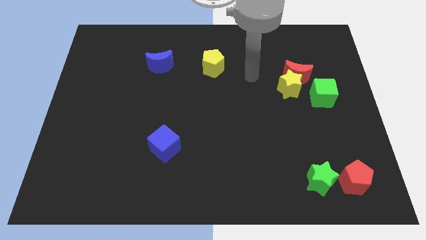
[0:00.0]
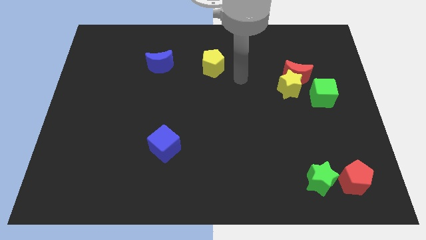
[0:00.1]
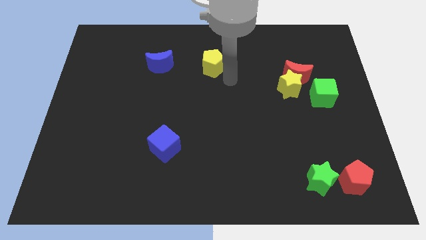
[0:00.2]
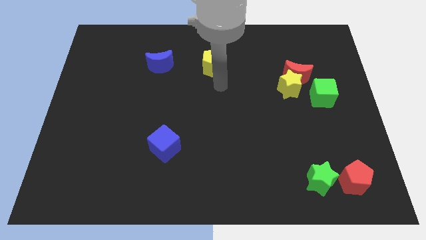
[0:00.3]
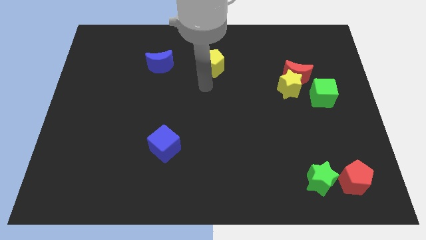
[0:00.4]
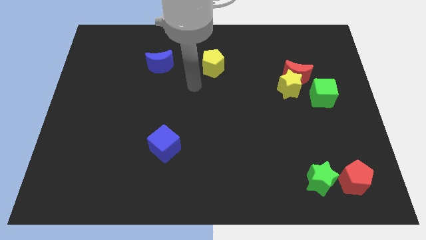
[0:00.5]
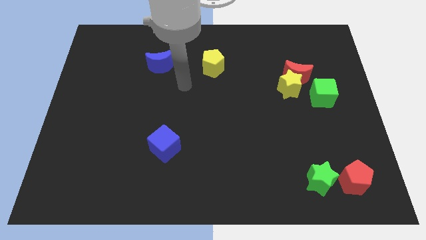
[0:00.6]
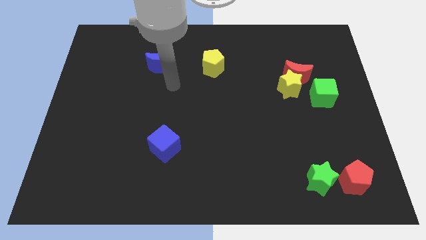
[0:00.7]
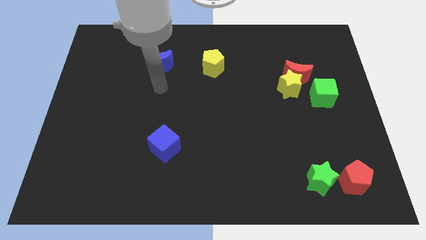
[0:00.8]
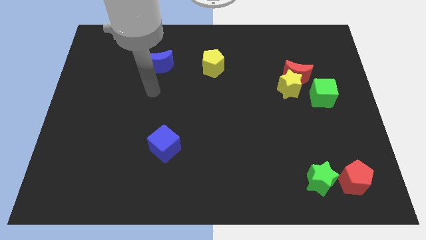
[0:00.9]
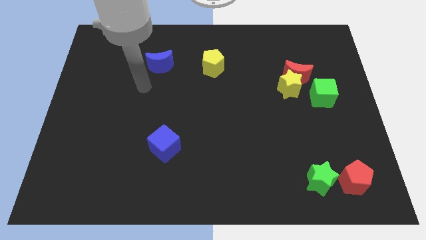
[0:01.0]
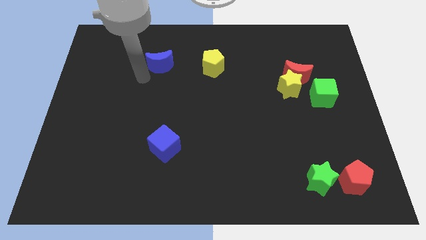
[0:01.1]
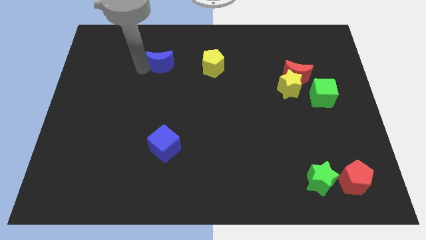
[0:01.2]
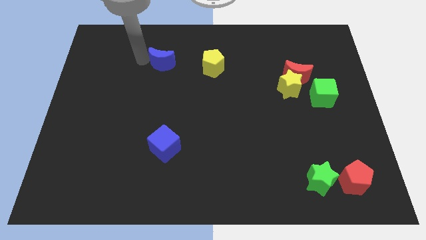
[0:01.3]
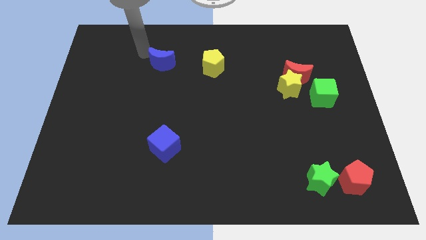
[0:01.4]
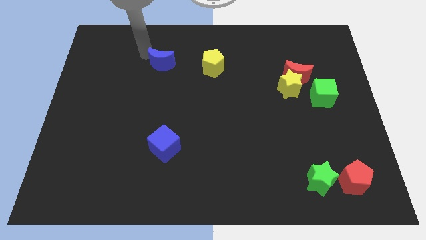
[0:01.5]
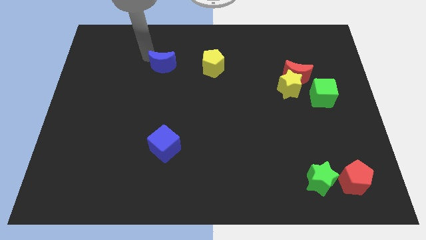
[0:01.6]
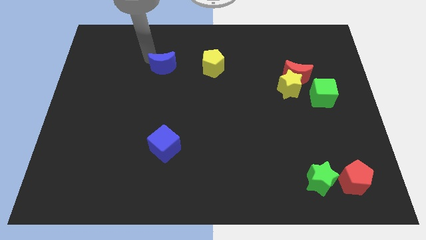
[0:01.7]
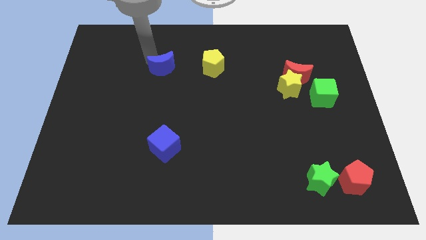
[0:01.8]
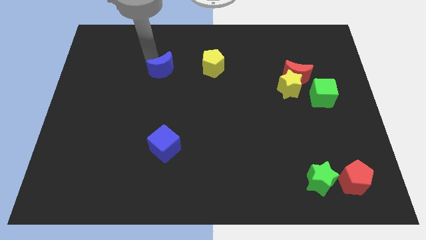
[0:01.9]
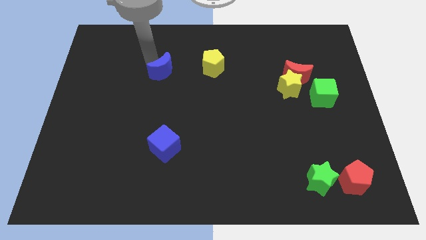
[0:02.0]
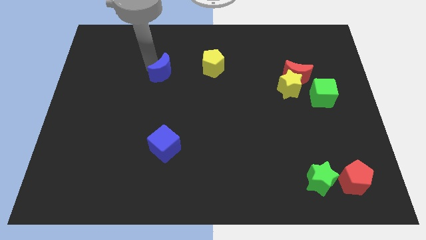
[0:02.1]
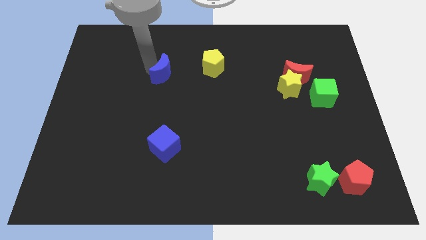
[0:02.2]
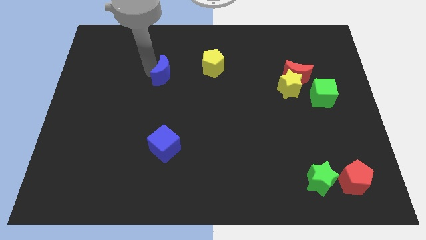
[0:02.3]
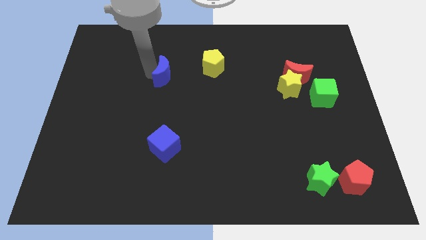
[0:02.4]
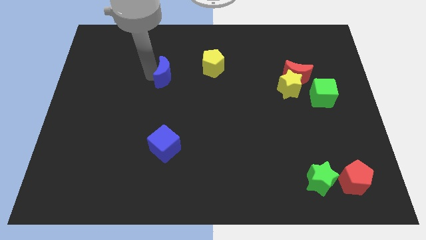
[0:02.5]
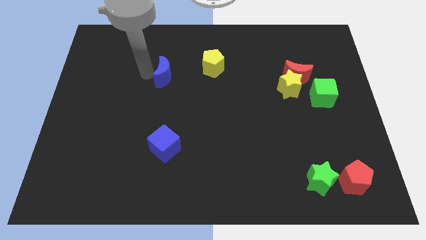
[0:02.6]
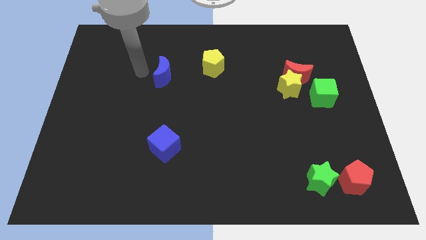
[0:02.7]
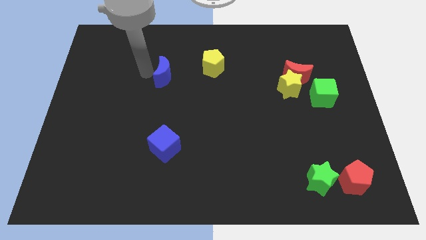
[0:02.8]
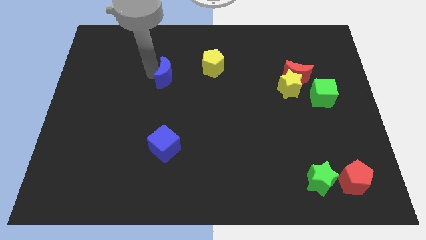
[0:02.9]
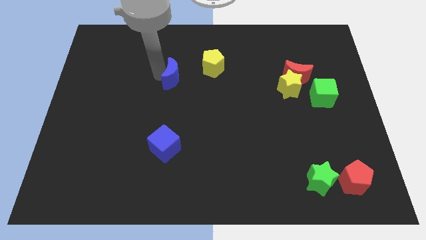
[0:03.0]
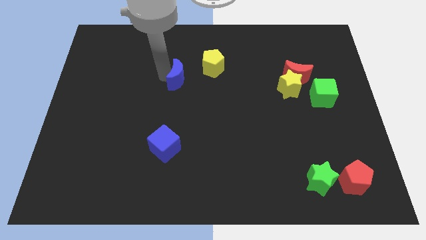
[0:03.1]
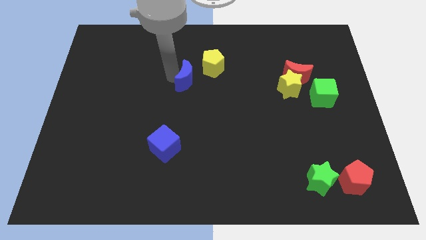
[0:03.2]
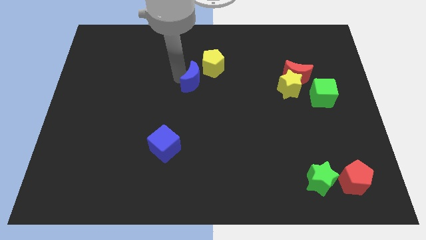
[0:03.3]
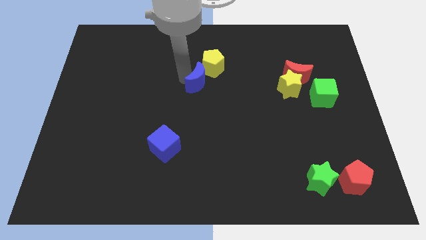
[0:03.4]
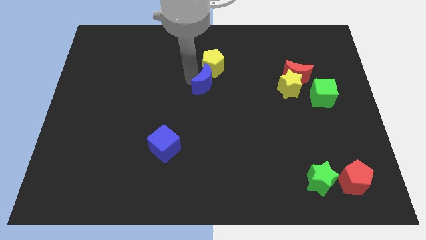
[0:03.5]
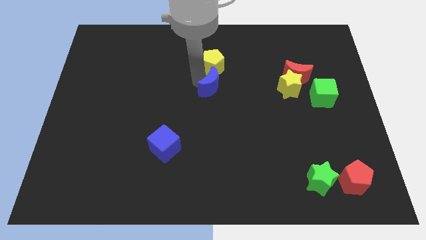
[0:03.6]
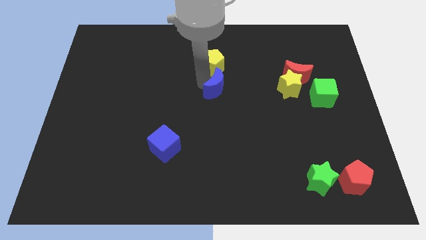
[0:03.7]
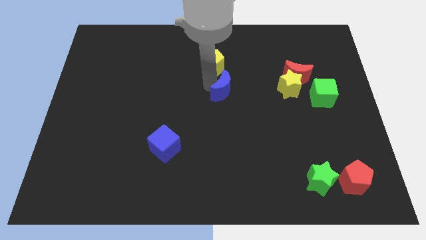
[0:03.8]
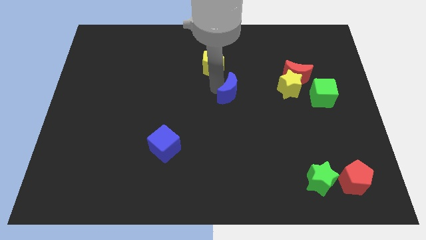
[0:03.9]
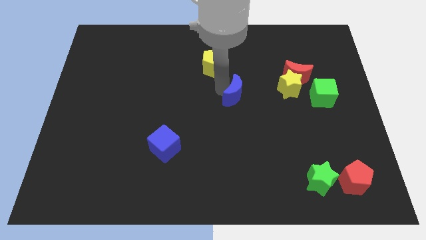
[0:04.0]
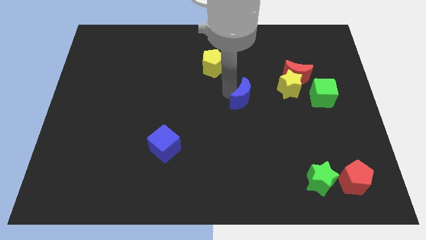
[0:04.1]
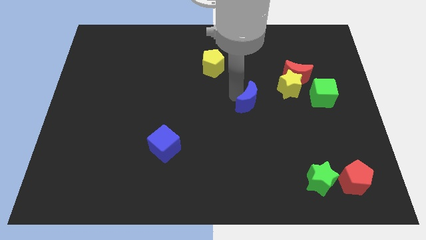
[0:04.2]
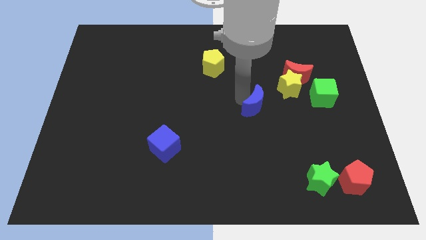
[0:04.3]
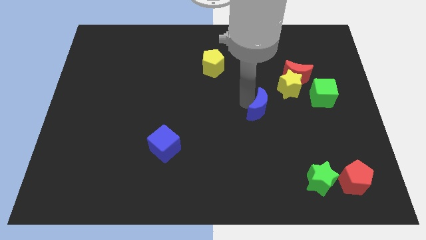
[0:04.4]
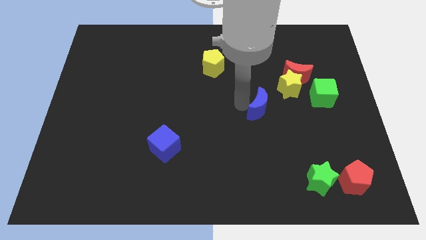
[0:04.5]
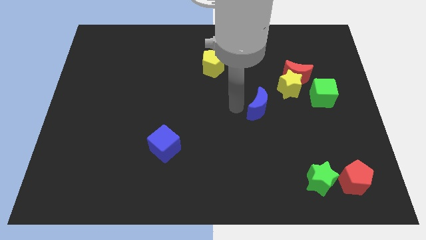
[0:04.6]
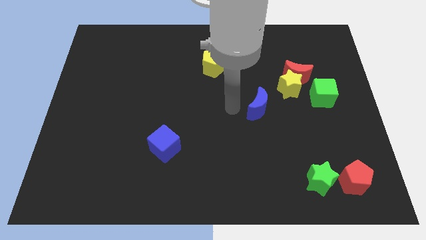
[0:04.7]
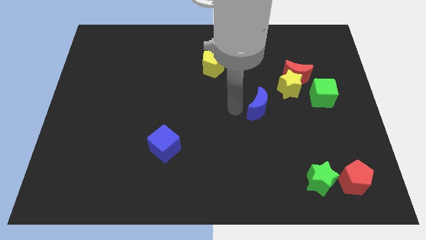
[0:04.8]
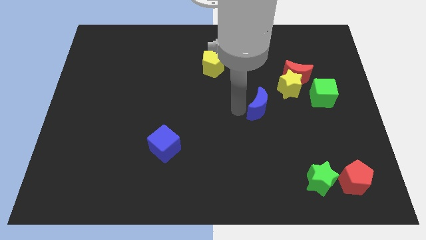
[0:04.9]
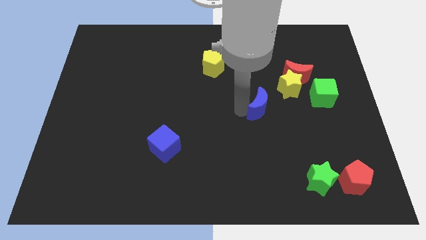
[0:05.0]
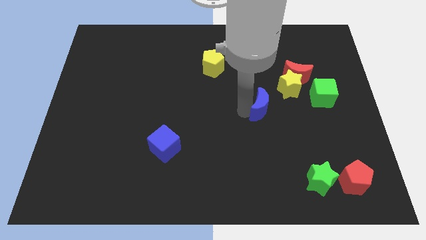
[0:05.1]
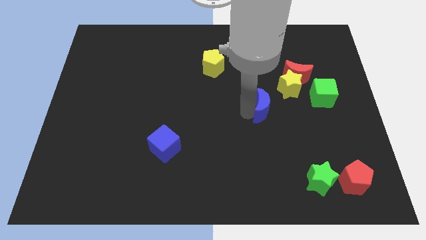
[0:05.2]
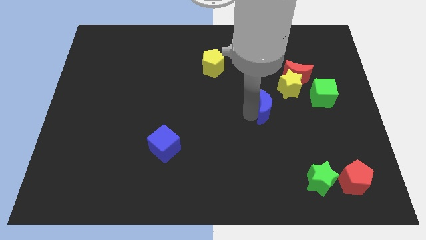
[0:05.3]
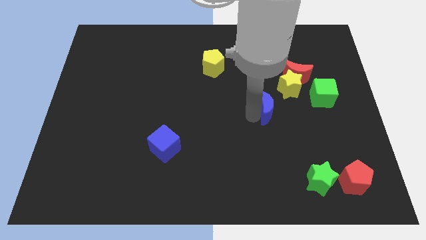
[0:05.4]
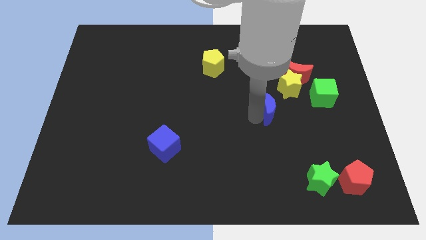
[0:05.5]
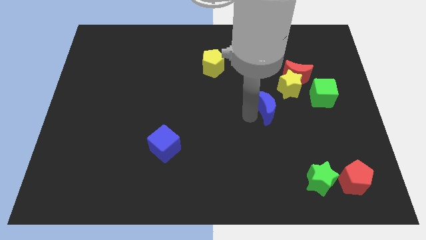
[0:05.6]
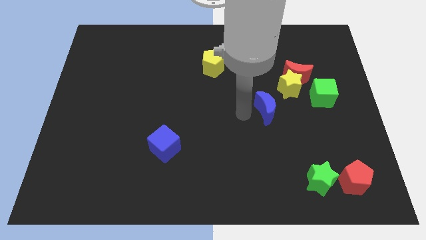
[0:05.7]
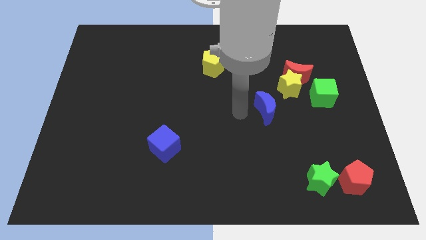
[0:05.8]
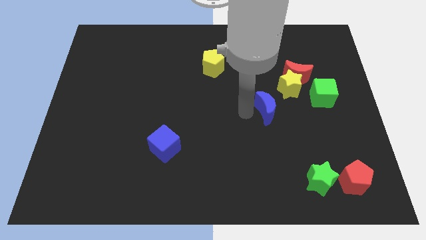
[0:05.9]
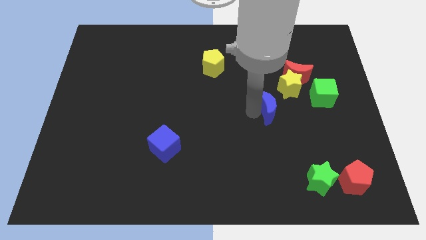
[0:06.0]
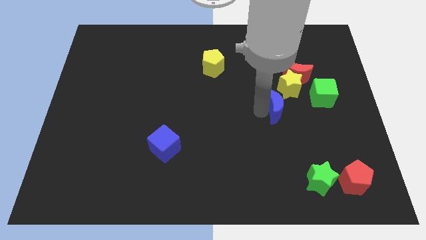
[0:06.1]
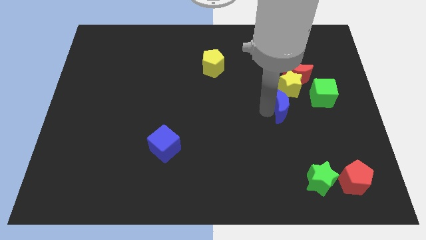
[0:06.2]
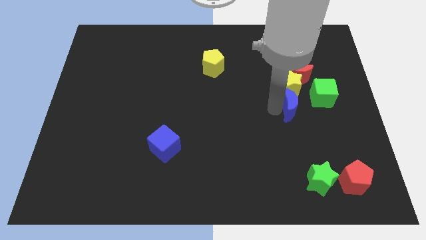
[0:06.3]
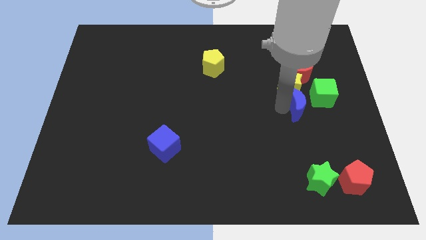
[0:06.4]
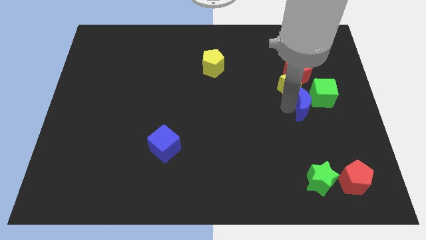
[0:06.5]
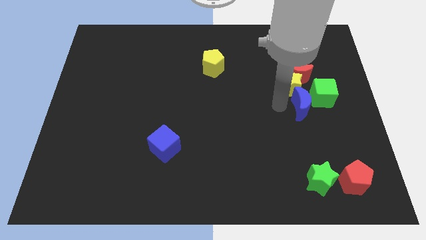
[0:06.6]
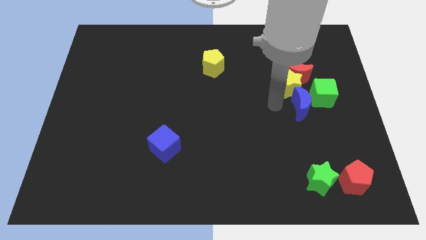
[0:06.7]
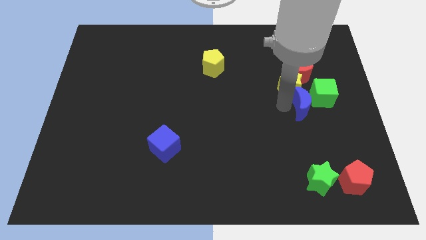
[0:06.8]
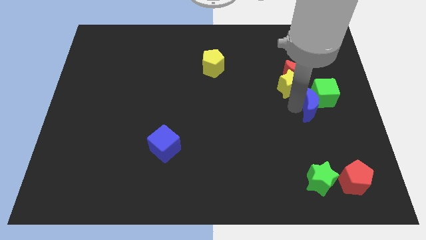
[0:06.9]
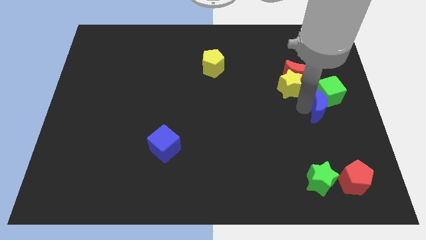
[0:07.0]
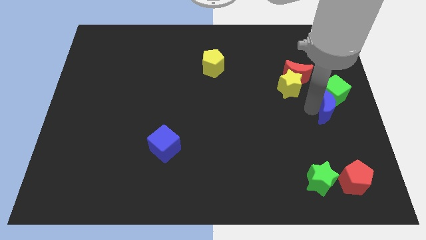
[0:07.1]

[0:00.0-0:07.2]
push the blue moon to the right side
